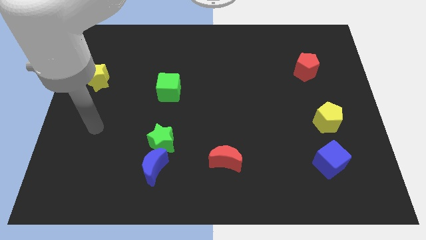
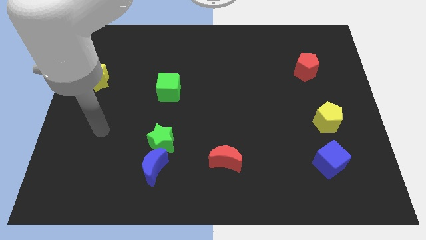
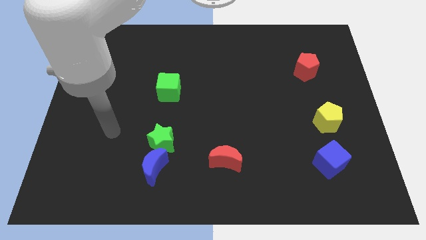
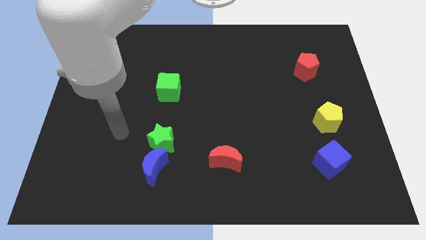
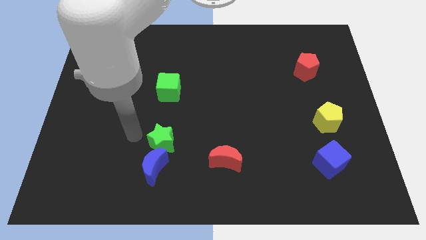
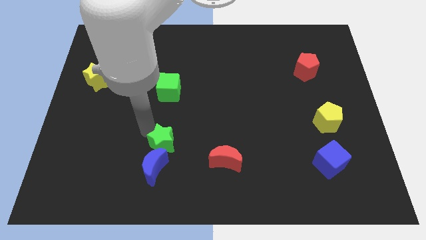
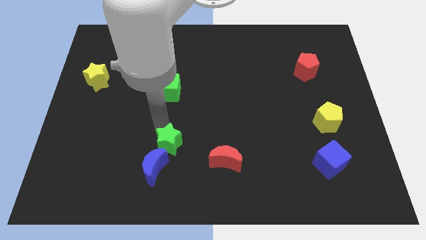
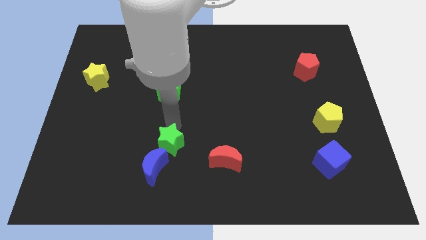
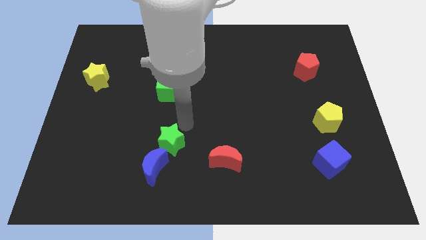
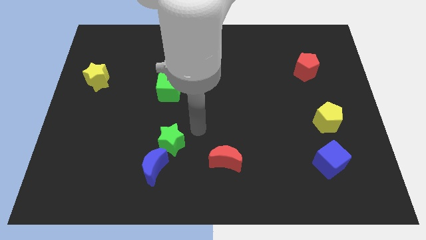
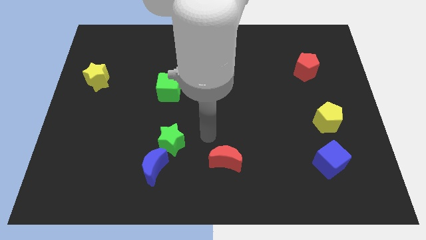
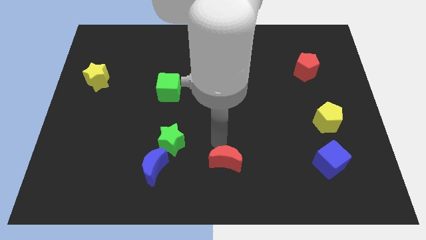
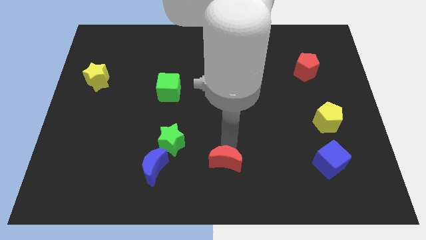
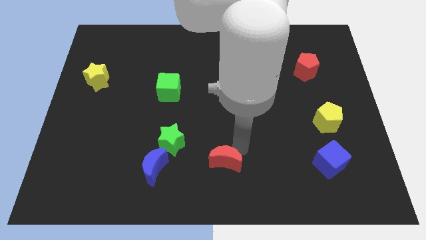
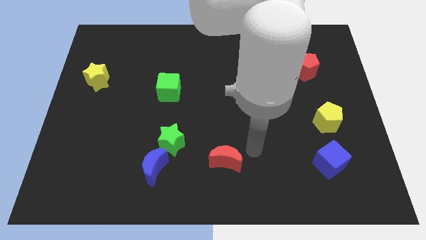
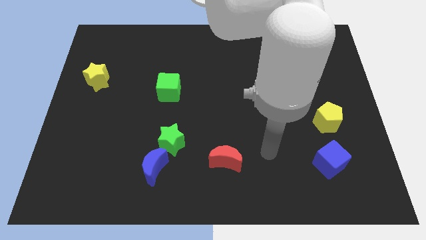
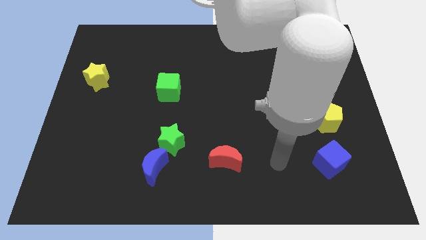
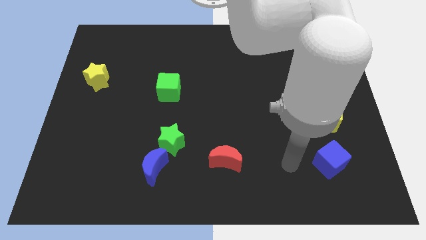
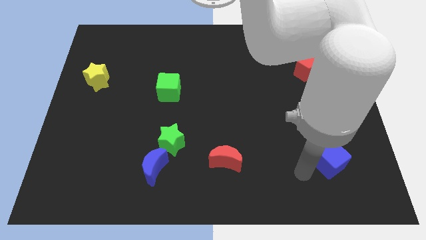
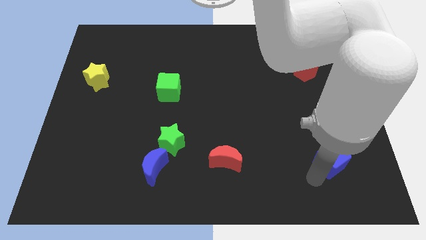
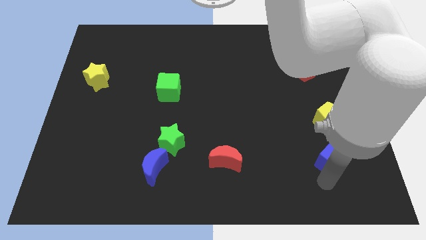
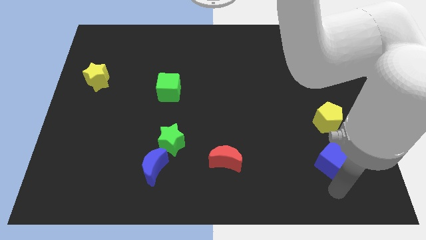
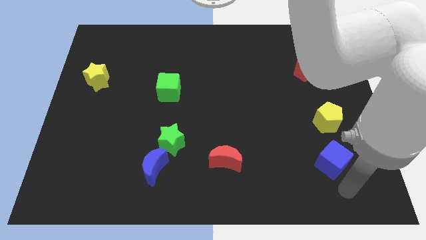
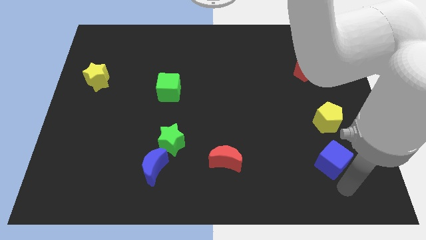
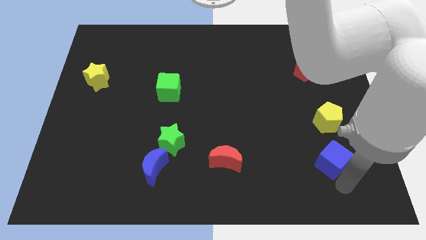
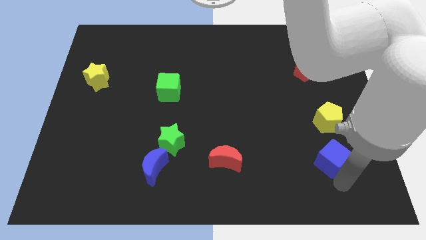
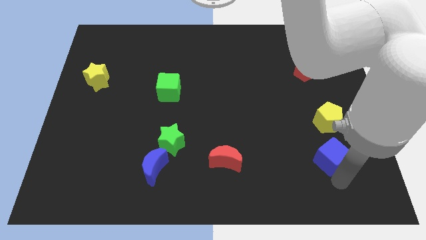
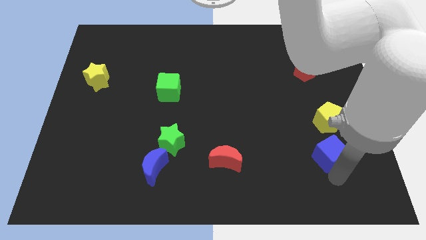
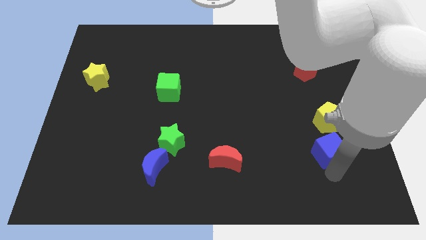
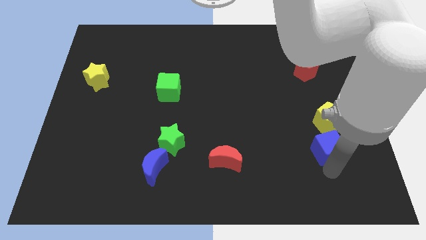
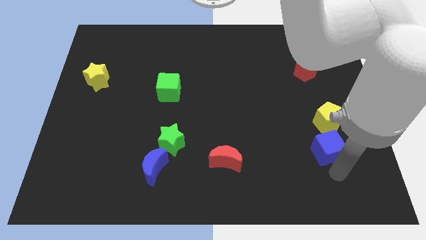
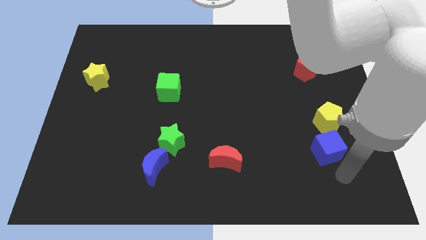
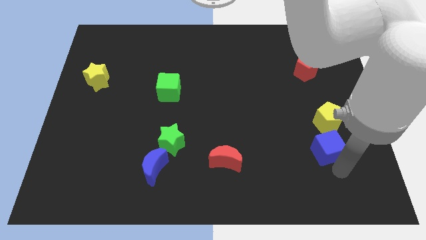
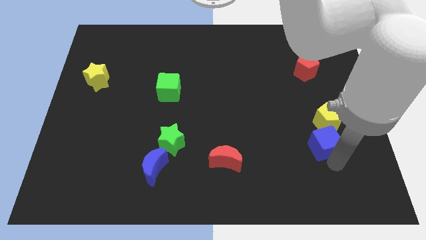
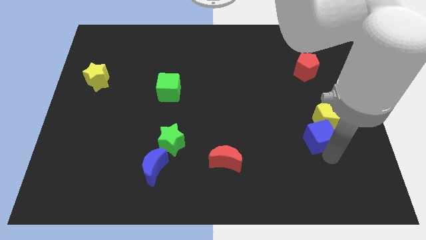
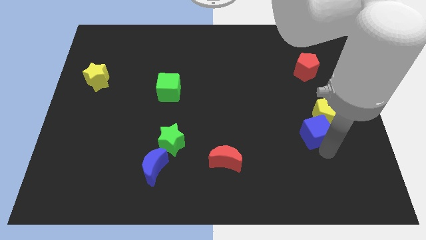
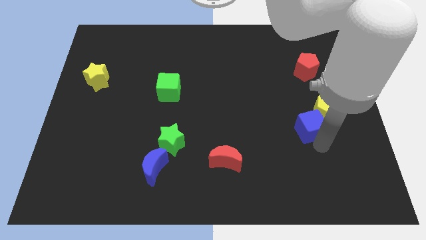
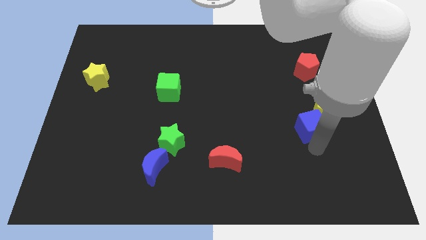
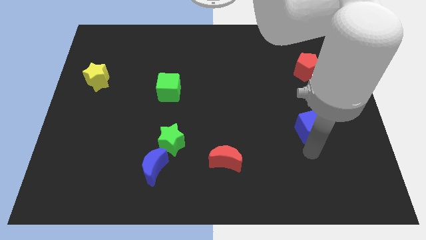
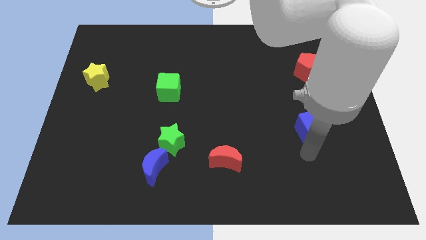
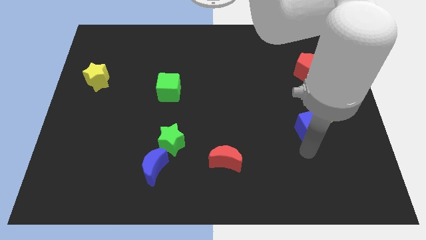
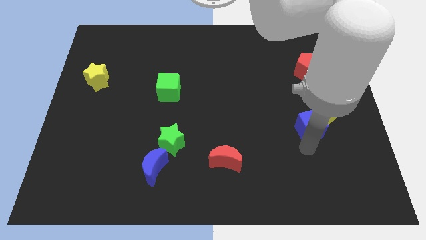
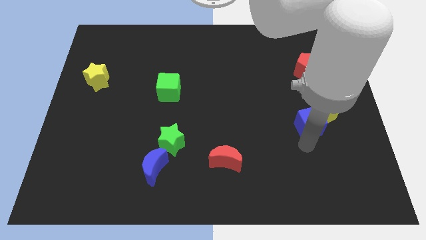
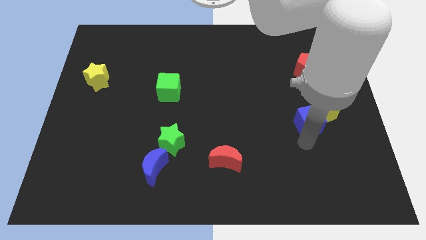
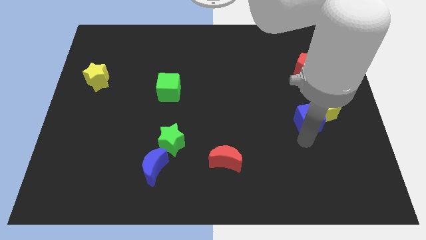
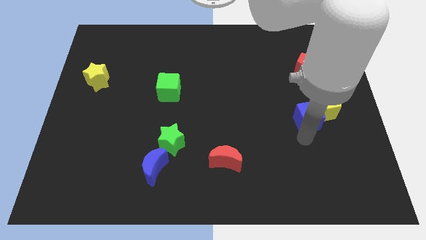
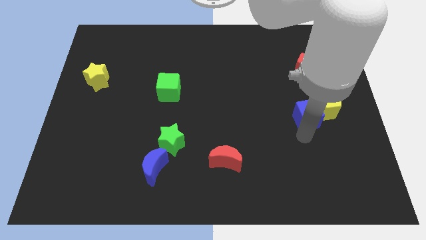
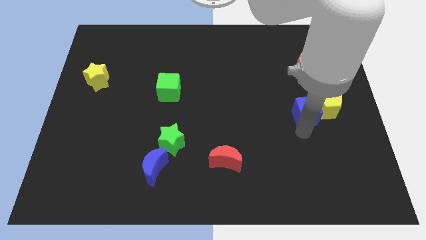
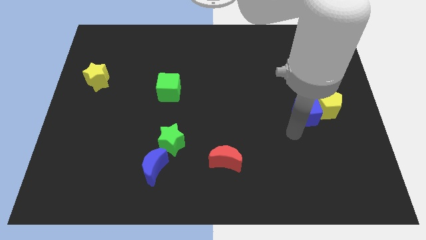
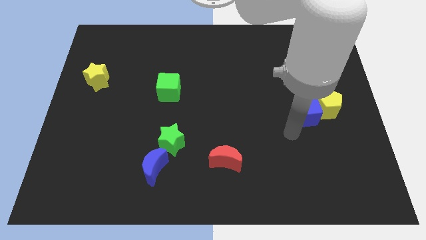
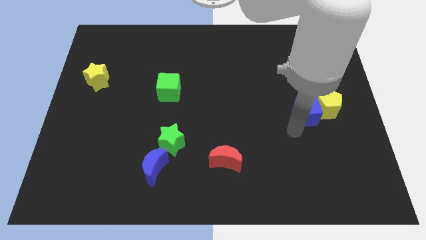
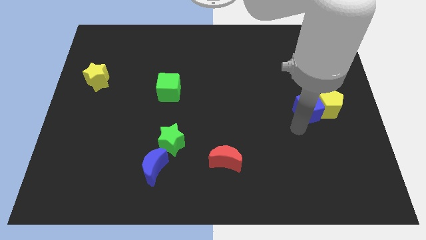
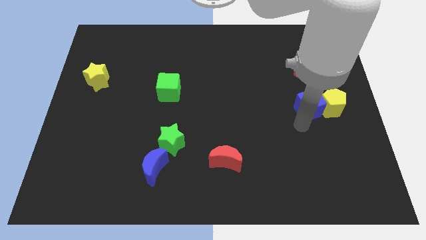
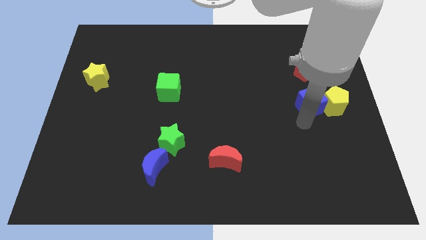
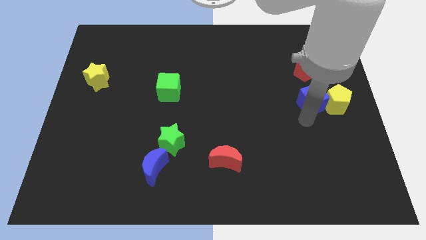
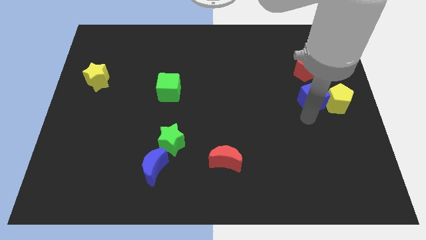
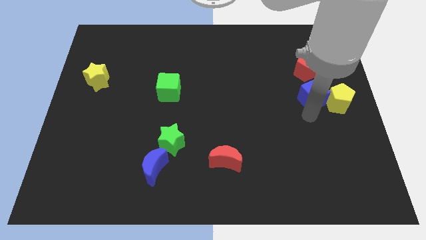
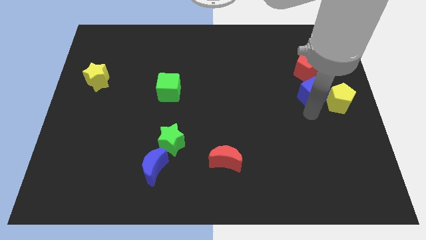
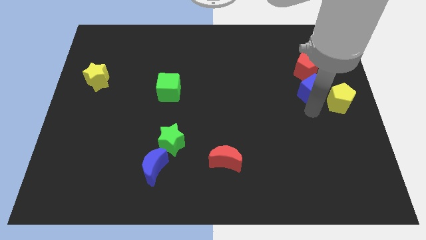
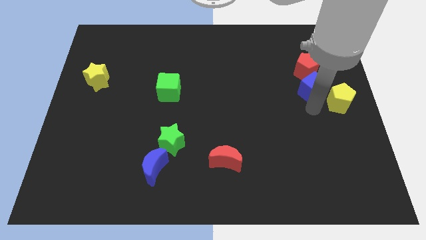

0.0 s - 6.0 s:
slide the blue cube to the bottom right of the red pentagon
